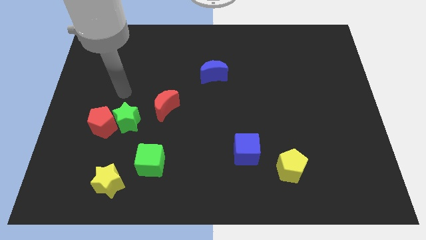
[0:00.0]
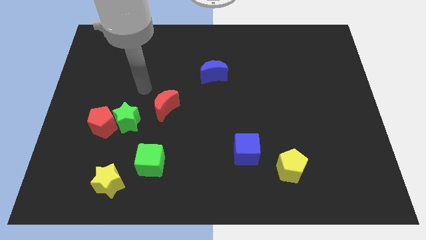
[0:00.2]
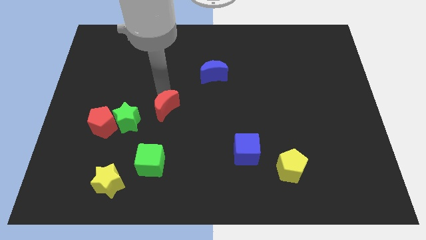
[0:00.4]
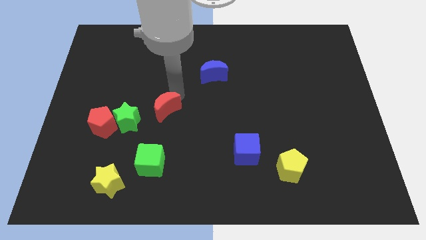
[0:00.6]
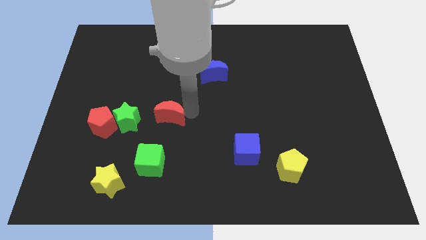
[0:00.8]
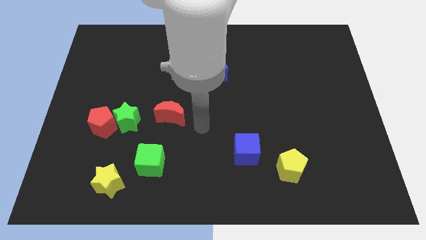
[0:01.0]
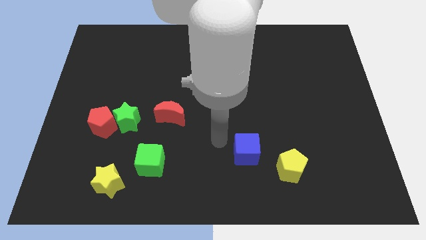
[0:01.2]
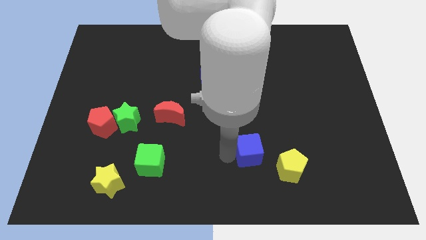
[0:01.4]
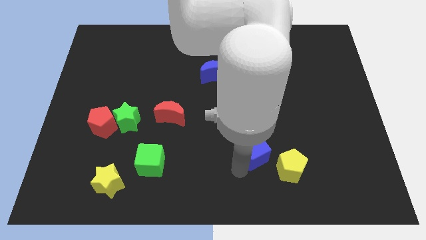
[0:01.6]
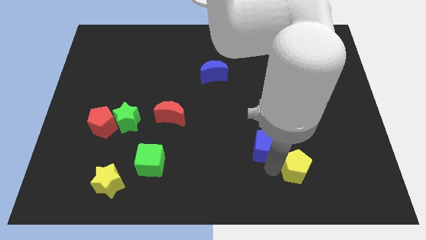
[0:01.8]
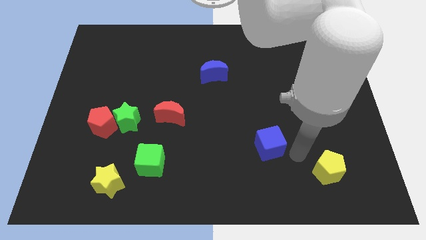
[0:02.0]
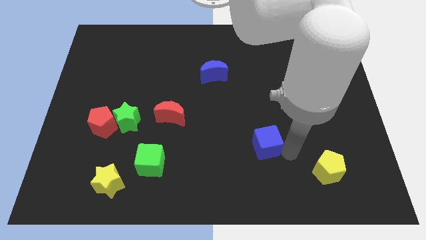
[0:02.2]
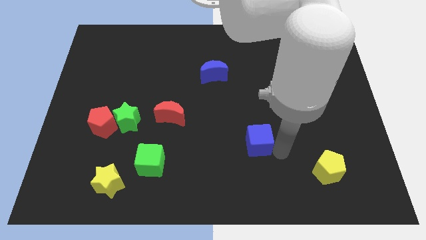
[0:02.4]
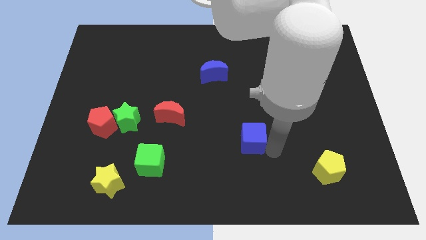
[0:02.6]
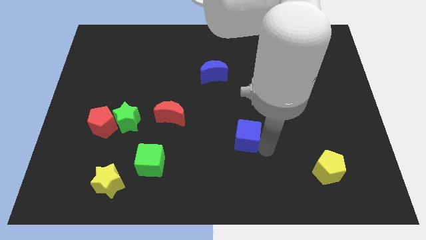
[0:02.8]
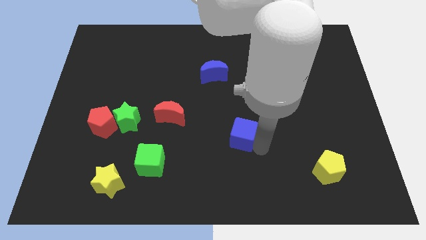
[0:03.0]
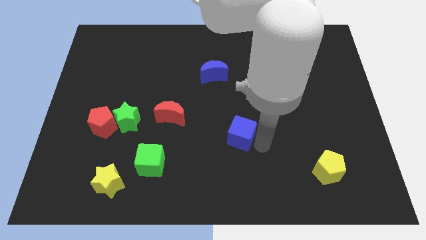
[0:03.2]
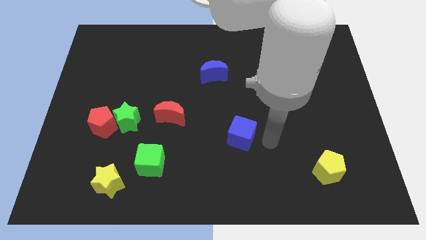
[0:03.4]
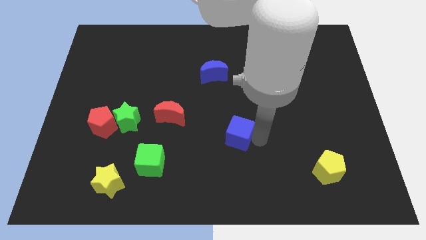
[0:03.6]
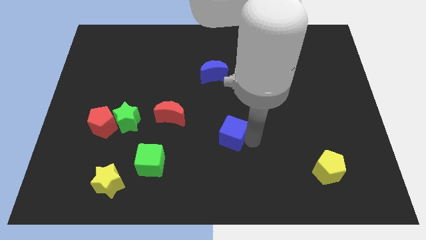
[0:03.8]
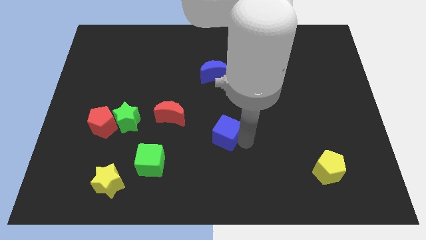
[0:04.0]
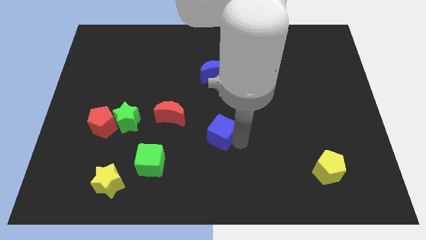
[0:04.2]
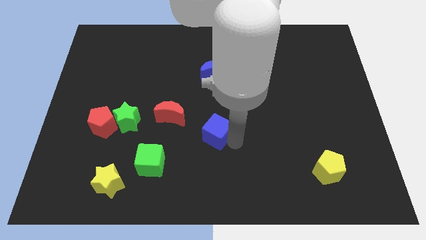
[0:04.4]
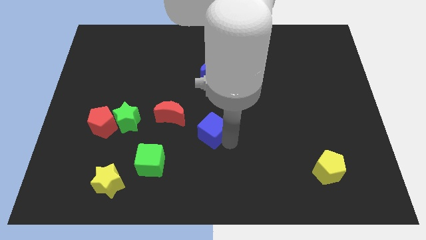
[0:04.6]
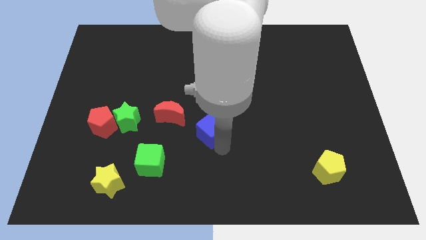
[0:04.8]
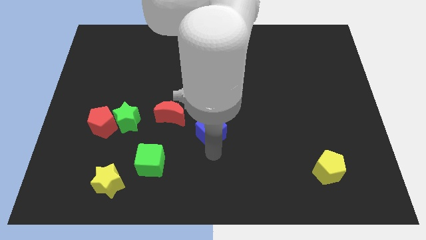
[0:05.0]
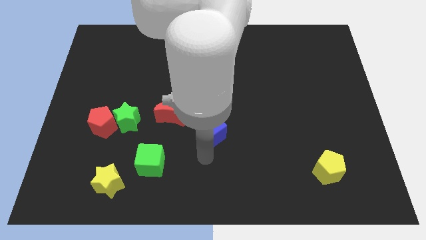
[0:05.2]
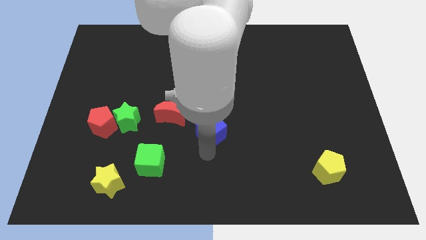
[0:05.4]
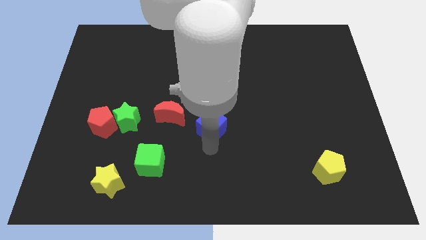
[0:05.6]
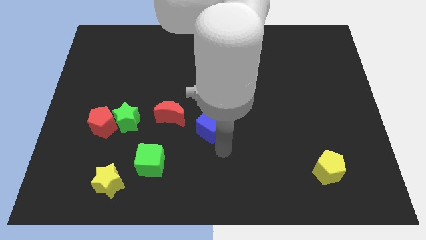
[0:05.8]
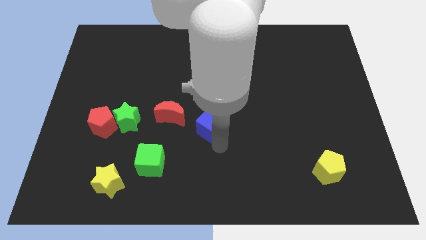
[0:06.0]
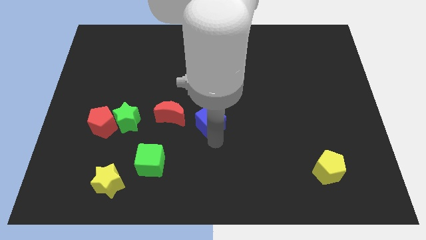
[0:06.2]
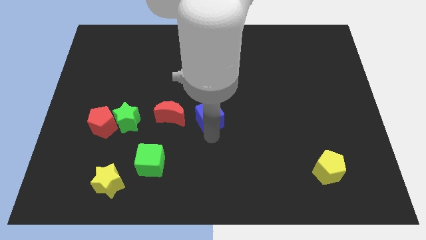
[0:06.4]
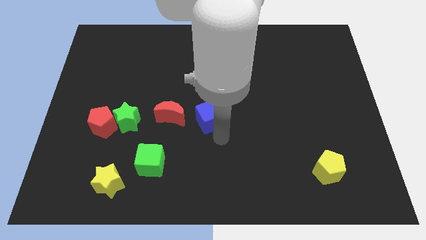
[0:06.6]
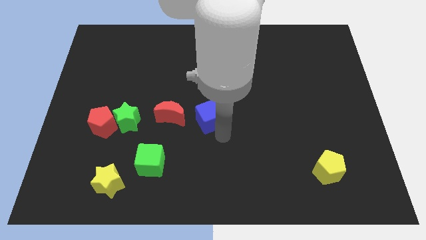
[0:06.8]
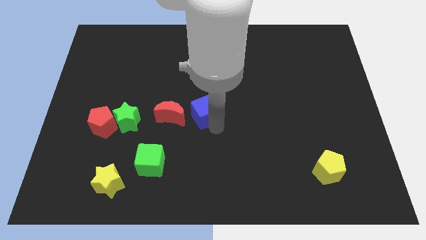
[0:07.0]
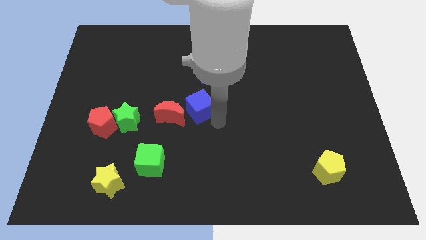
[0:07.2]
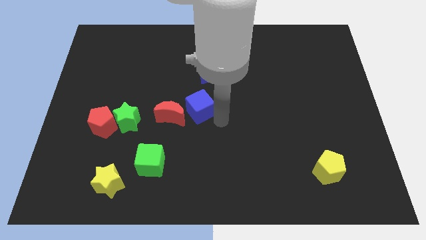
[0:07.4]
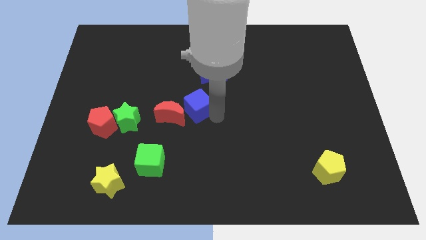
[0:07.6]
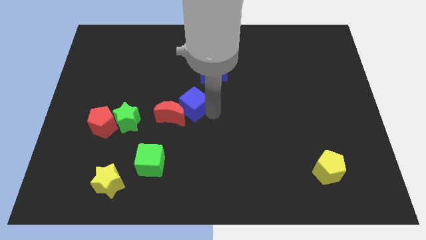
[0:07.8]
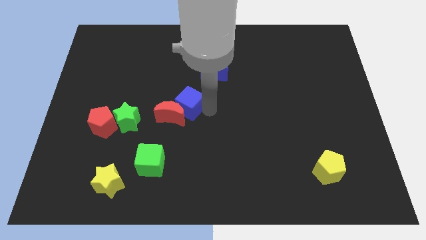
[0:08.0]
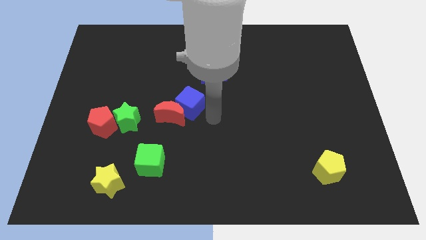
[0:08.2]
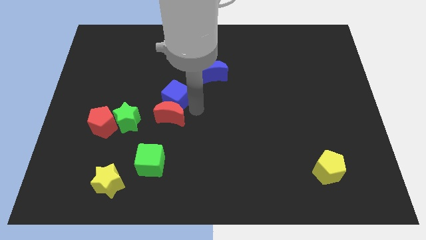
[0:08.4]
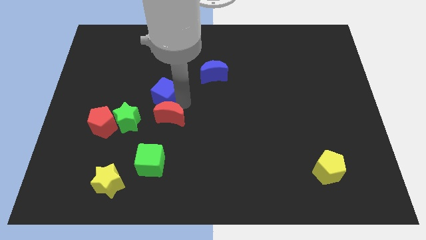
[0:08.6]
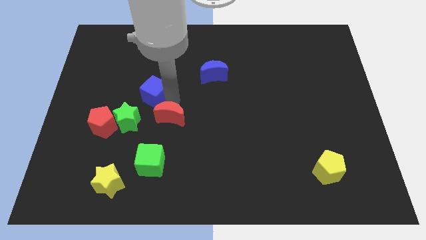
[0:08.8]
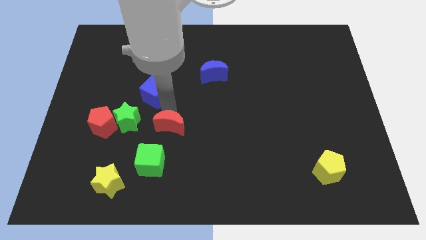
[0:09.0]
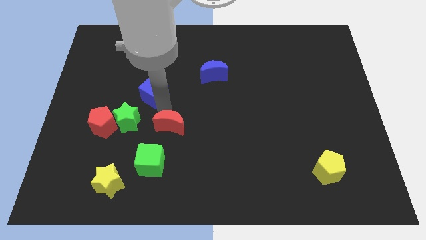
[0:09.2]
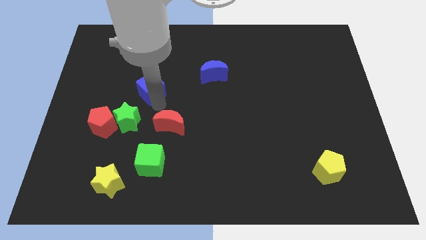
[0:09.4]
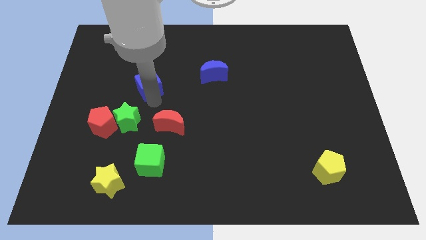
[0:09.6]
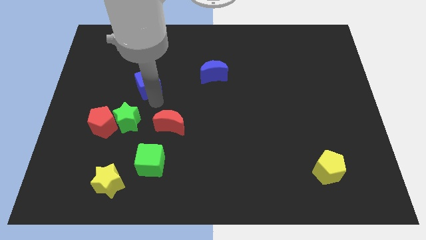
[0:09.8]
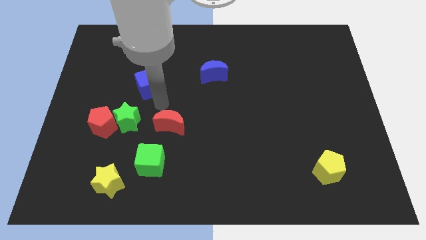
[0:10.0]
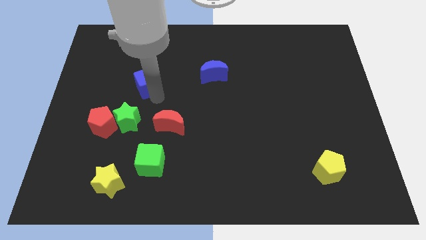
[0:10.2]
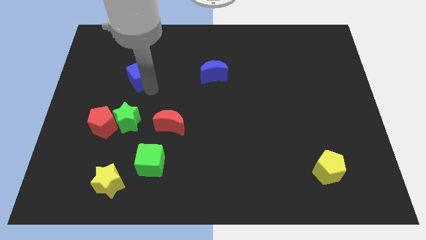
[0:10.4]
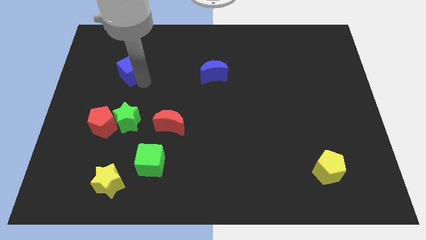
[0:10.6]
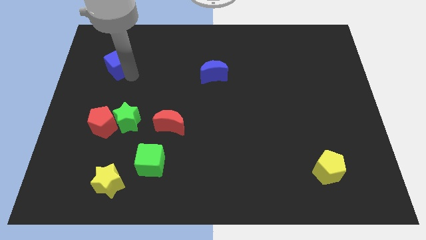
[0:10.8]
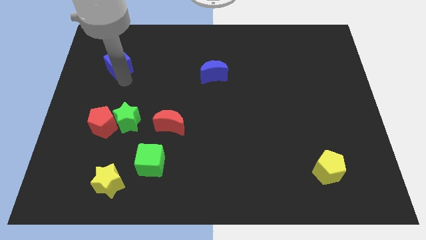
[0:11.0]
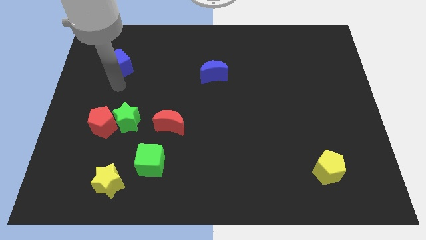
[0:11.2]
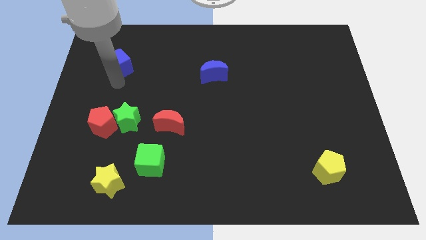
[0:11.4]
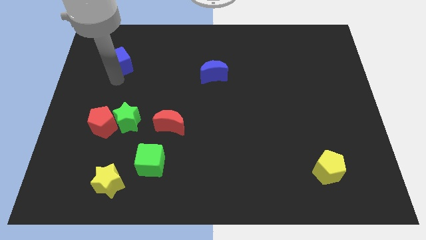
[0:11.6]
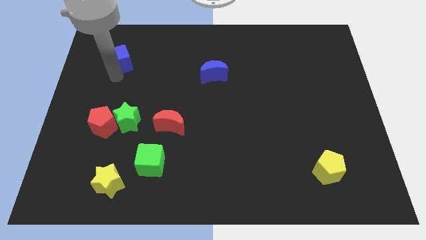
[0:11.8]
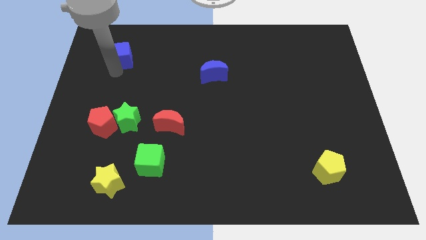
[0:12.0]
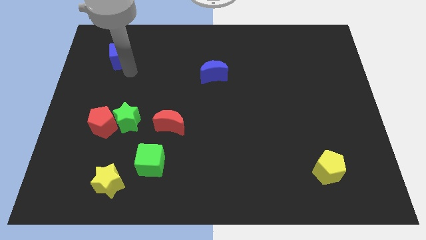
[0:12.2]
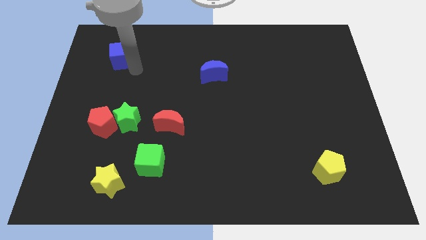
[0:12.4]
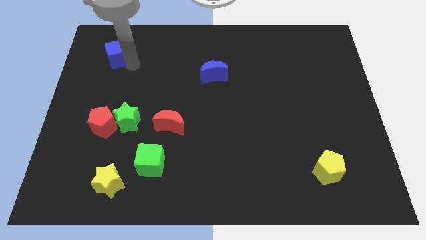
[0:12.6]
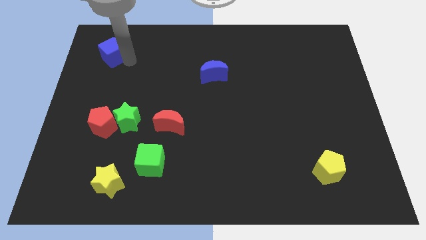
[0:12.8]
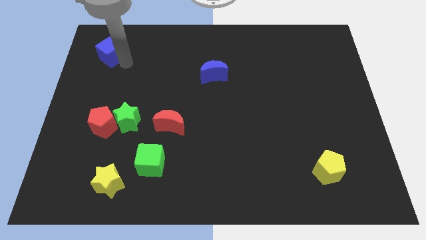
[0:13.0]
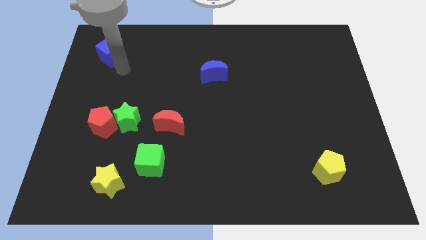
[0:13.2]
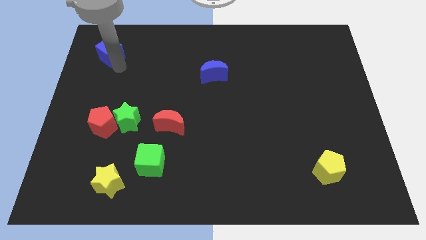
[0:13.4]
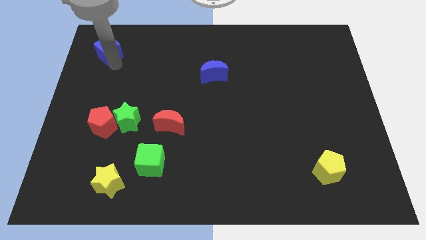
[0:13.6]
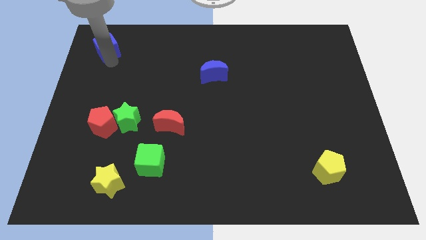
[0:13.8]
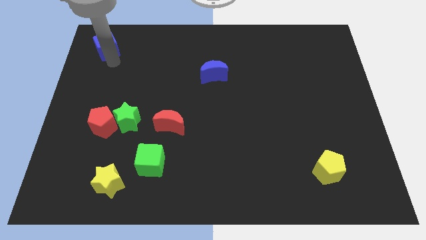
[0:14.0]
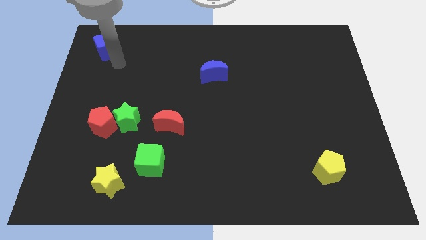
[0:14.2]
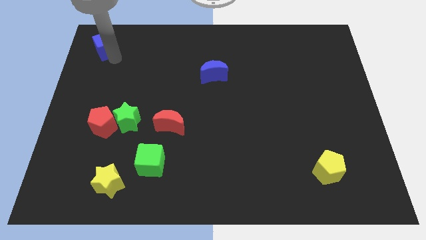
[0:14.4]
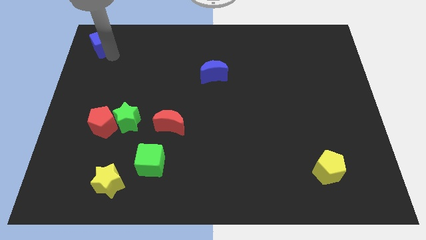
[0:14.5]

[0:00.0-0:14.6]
put the blue cube to the top left corner
